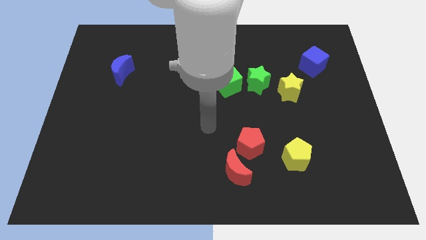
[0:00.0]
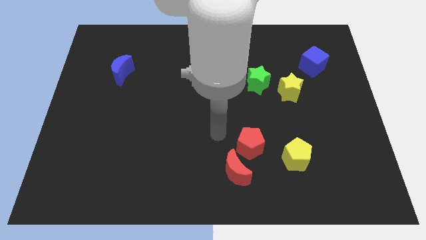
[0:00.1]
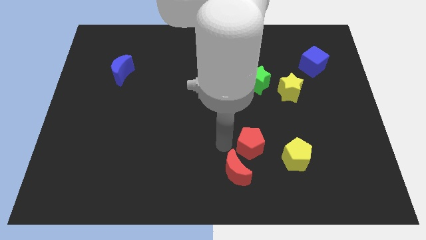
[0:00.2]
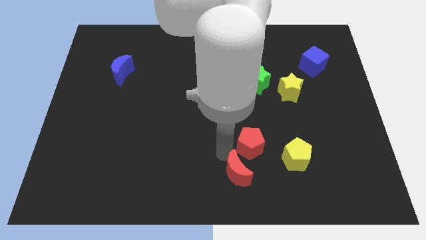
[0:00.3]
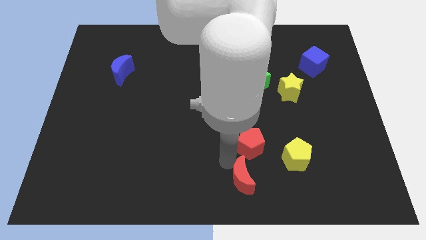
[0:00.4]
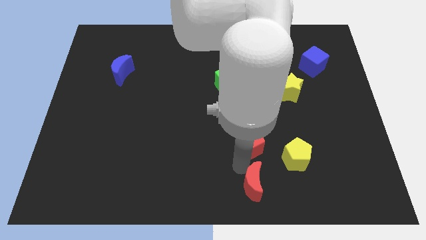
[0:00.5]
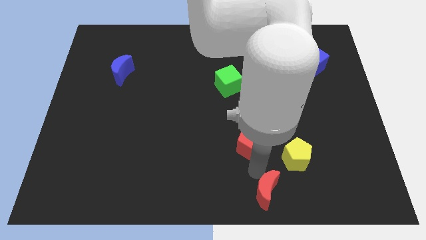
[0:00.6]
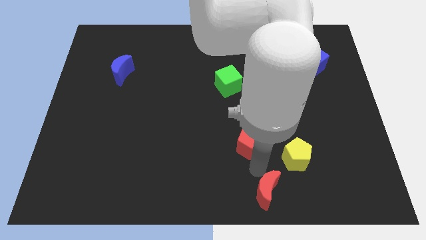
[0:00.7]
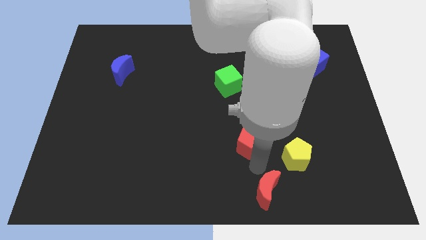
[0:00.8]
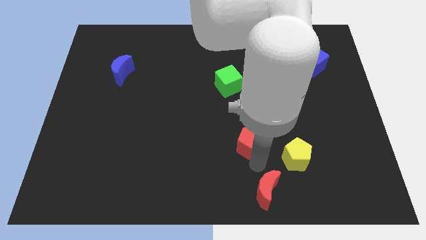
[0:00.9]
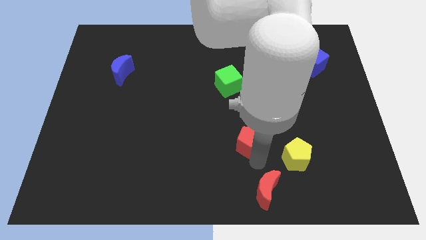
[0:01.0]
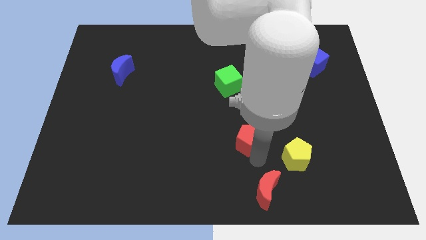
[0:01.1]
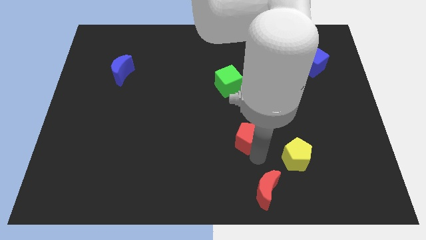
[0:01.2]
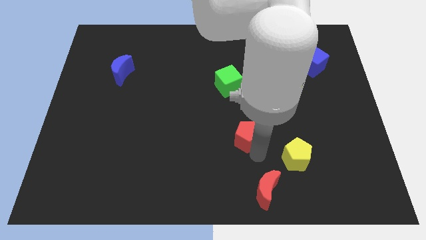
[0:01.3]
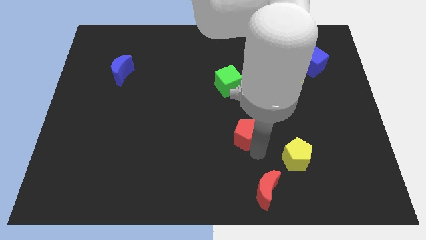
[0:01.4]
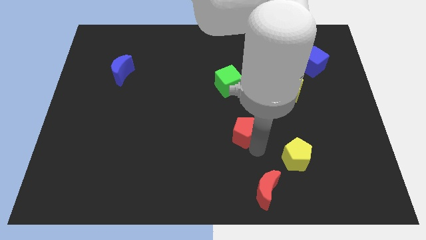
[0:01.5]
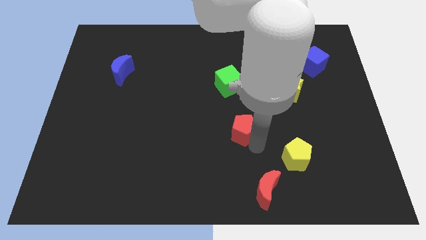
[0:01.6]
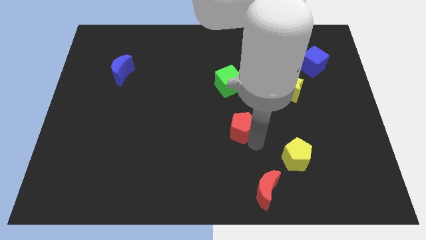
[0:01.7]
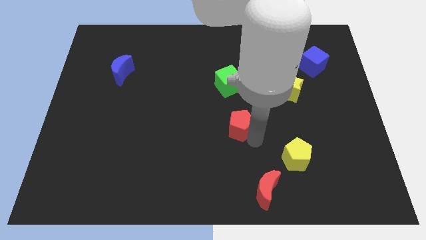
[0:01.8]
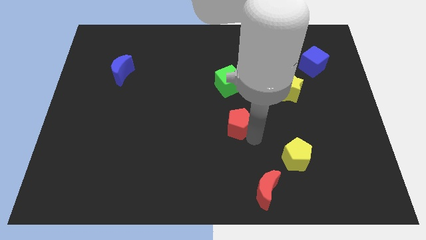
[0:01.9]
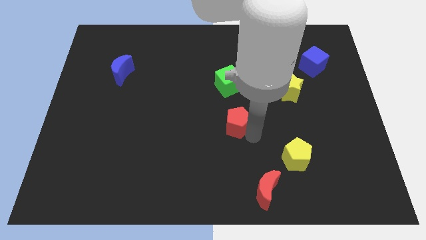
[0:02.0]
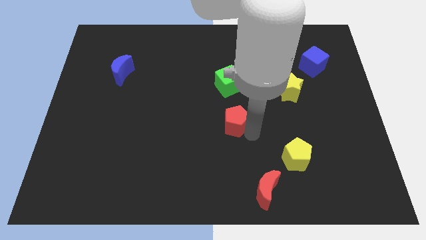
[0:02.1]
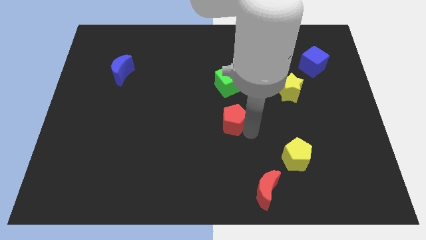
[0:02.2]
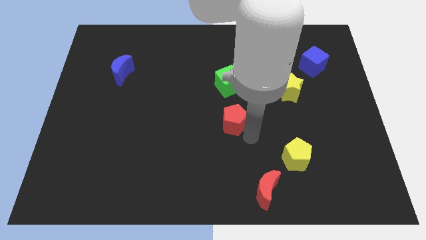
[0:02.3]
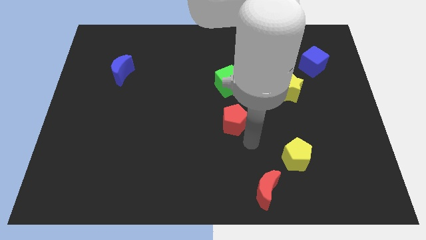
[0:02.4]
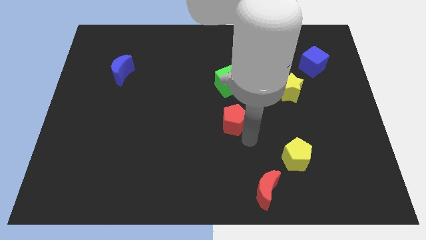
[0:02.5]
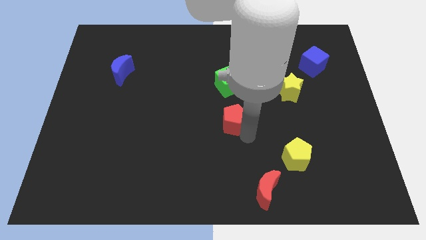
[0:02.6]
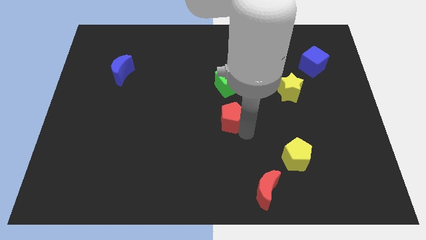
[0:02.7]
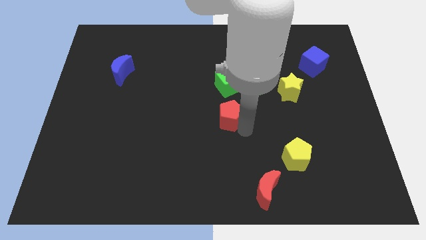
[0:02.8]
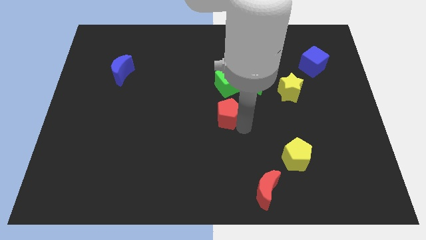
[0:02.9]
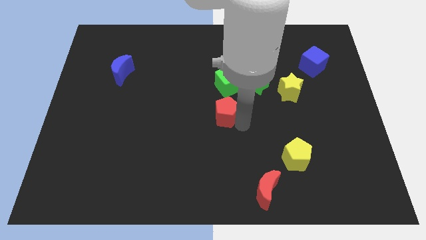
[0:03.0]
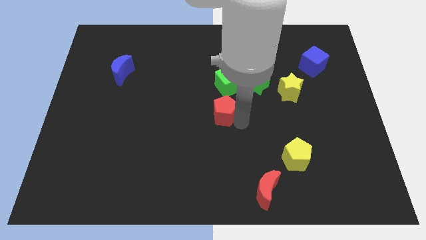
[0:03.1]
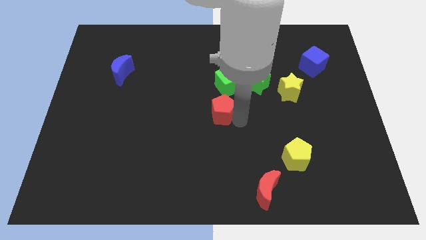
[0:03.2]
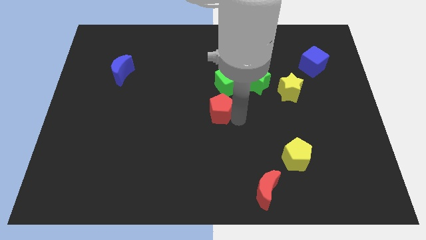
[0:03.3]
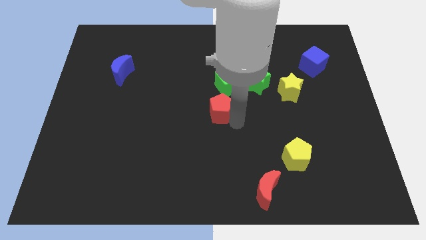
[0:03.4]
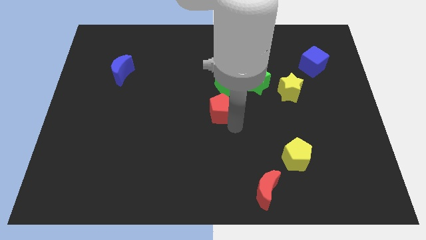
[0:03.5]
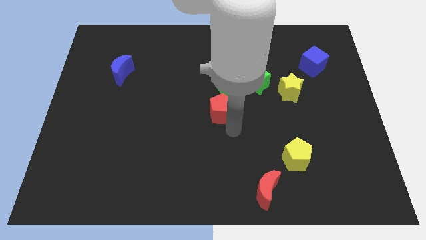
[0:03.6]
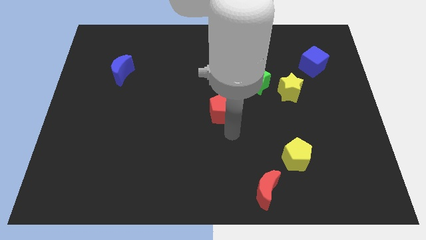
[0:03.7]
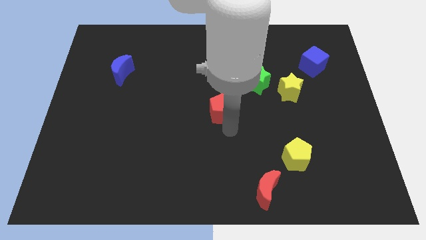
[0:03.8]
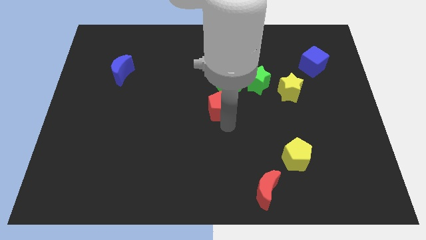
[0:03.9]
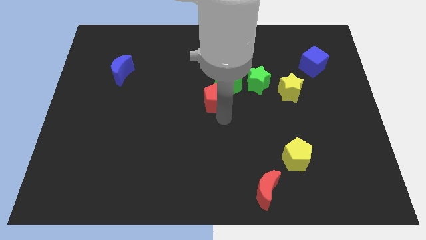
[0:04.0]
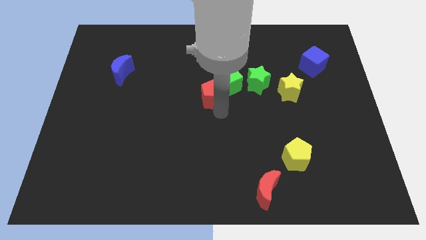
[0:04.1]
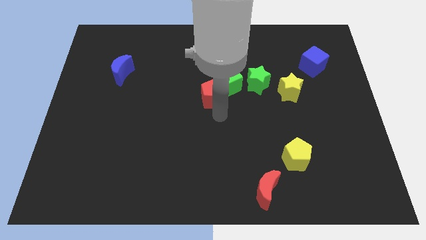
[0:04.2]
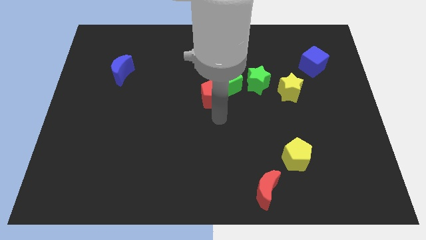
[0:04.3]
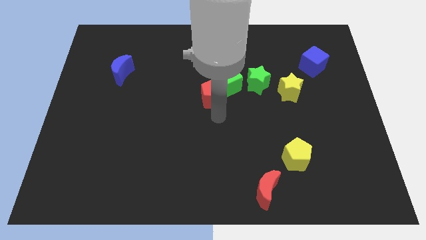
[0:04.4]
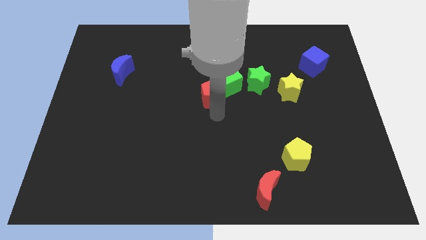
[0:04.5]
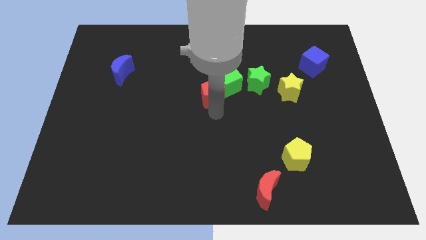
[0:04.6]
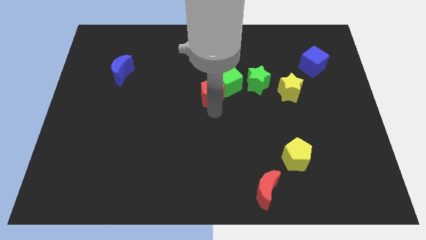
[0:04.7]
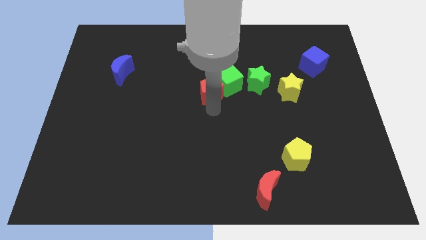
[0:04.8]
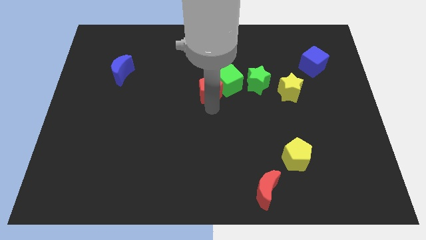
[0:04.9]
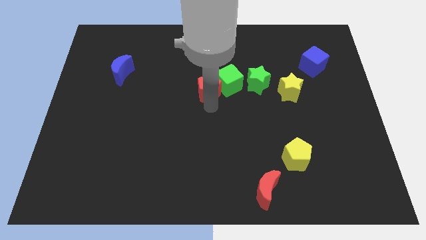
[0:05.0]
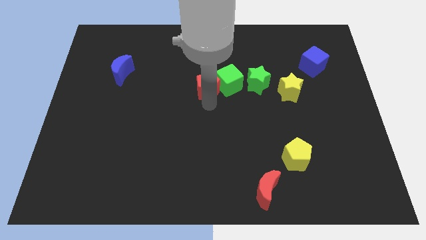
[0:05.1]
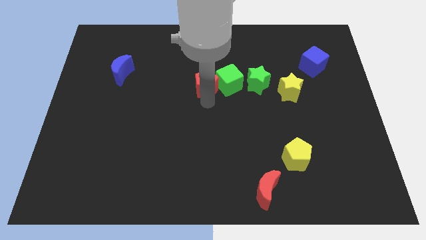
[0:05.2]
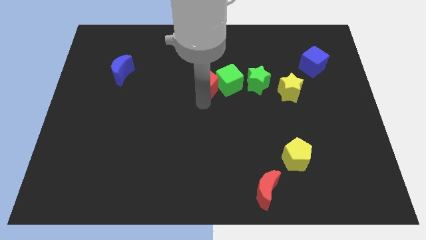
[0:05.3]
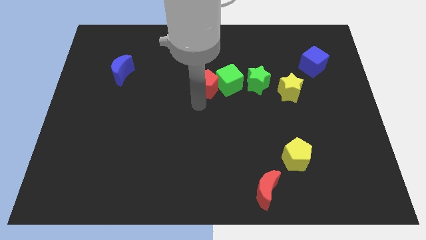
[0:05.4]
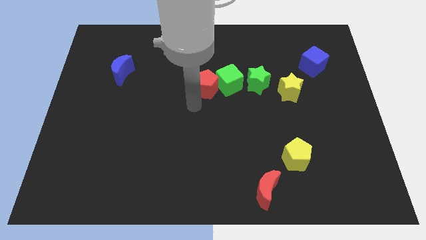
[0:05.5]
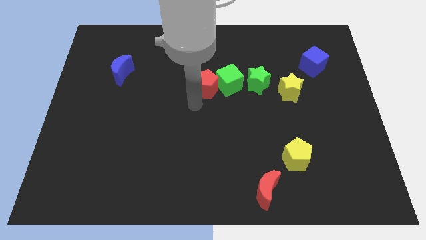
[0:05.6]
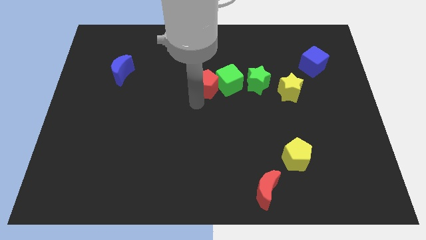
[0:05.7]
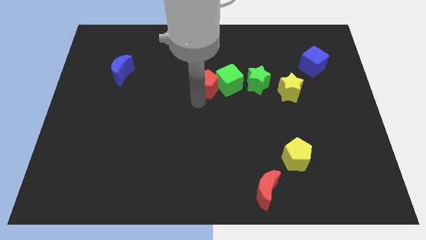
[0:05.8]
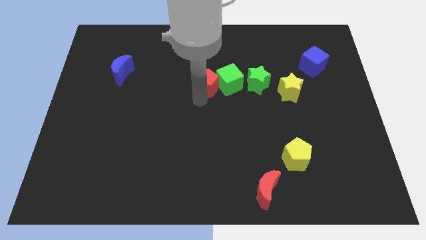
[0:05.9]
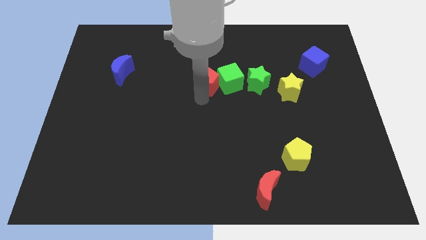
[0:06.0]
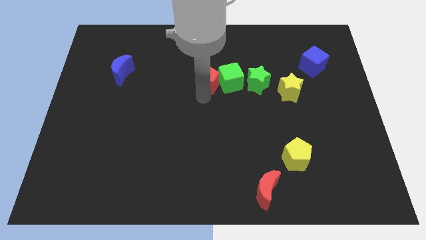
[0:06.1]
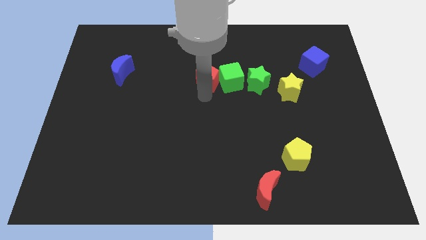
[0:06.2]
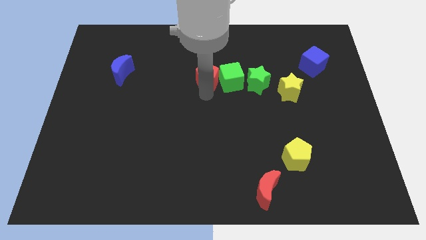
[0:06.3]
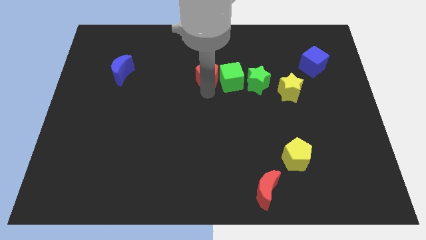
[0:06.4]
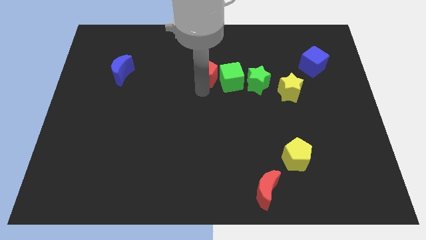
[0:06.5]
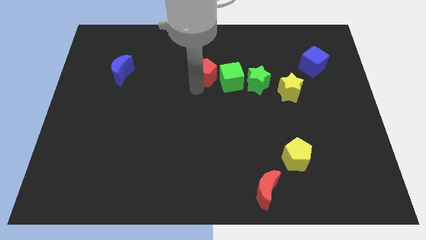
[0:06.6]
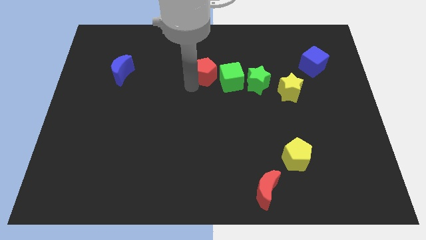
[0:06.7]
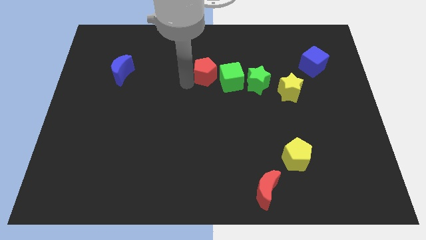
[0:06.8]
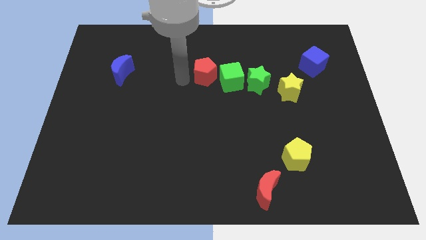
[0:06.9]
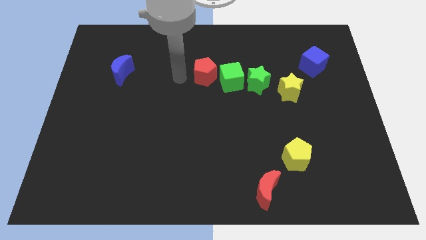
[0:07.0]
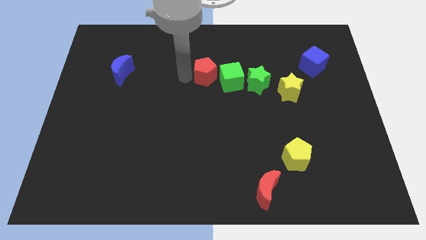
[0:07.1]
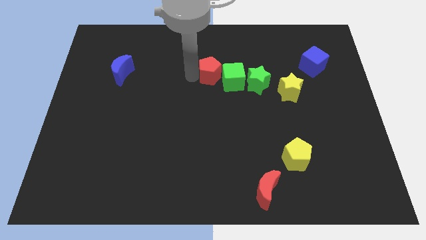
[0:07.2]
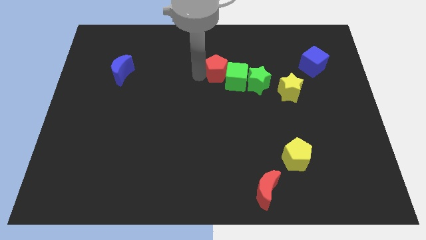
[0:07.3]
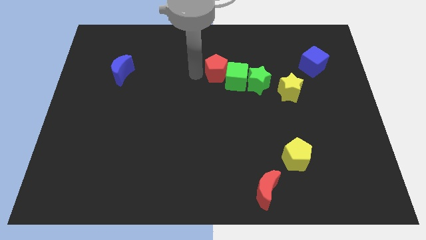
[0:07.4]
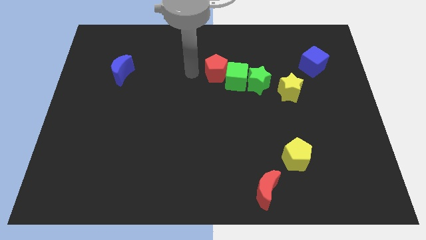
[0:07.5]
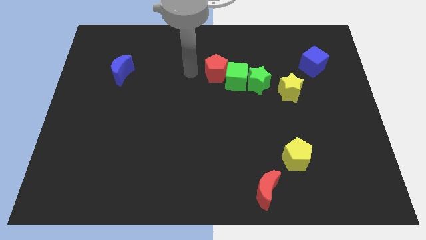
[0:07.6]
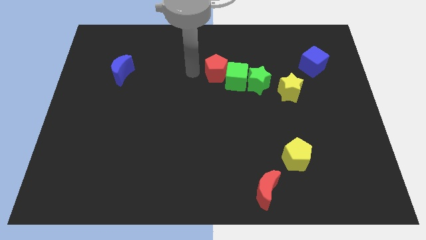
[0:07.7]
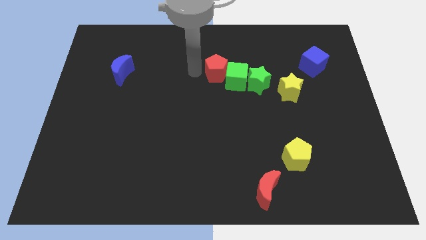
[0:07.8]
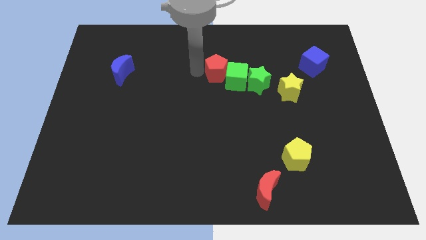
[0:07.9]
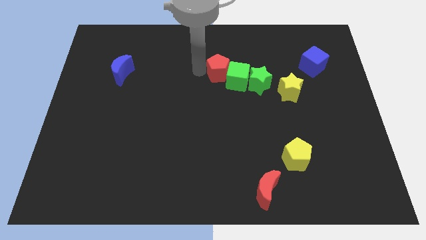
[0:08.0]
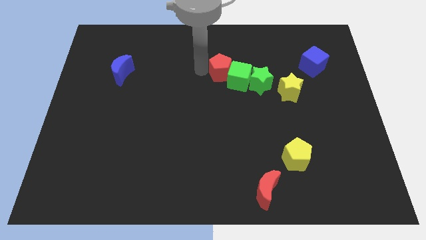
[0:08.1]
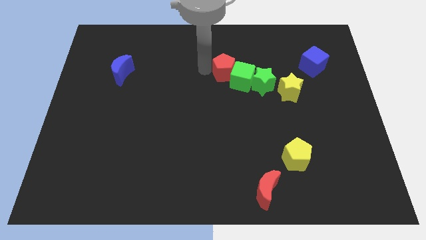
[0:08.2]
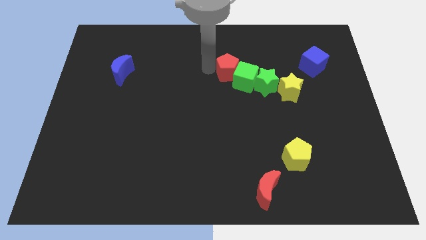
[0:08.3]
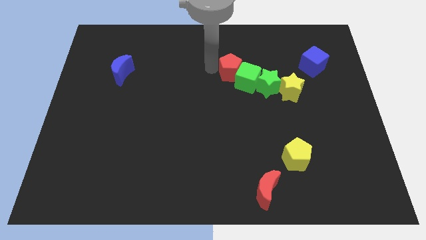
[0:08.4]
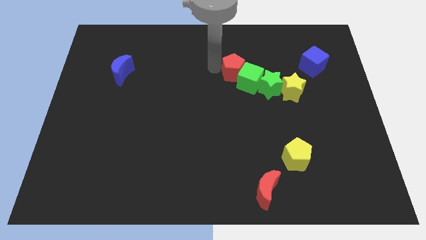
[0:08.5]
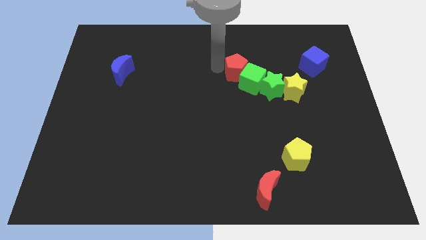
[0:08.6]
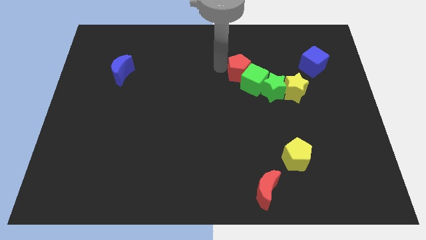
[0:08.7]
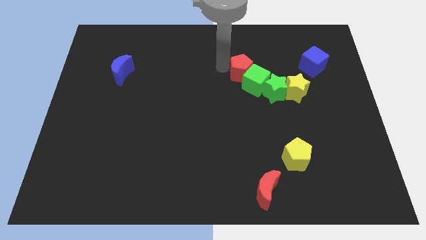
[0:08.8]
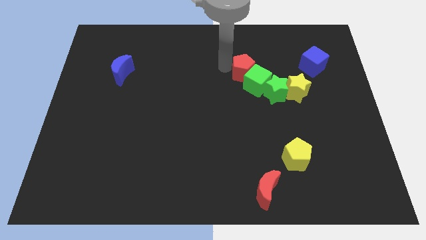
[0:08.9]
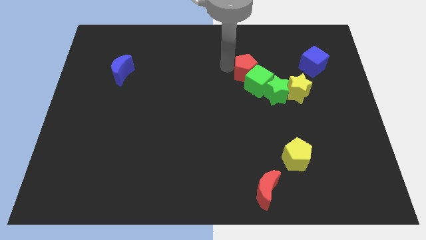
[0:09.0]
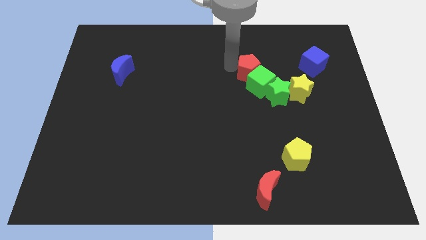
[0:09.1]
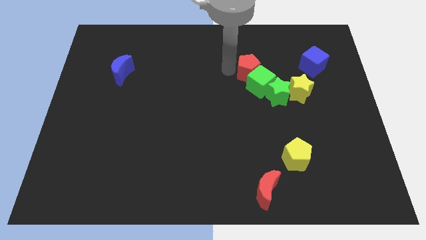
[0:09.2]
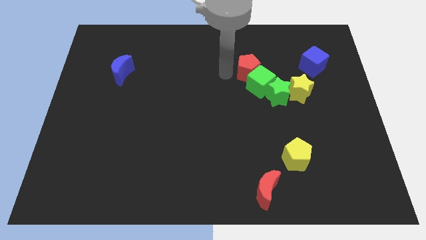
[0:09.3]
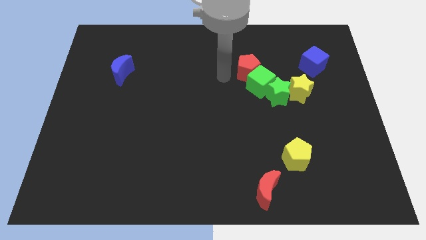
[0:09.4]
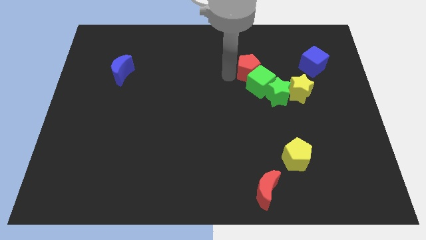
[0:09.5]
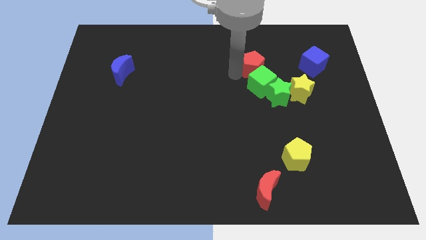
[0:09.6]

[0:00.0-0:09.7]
put the red pentagon left of the blue cube
